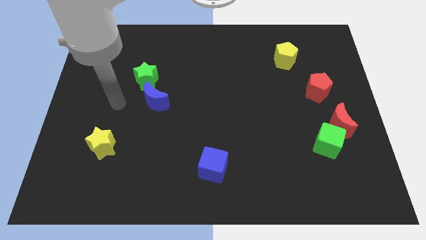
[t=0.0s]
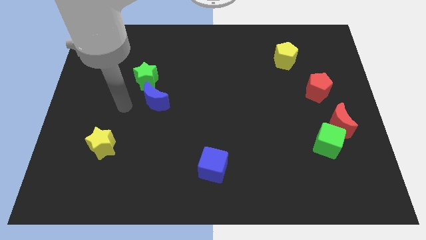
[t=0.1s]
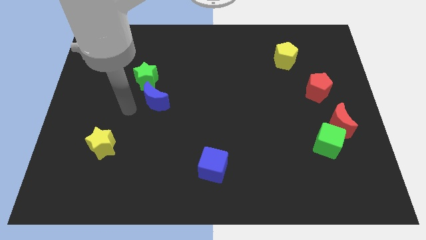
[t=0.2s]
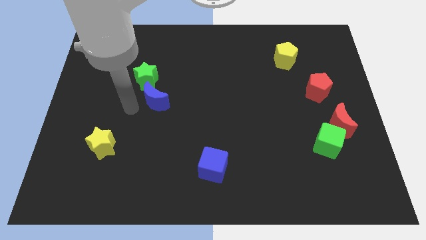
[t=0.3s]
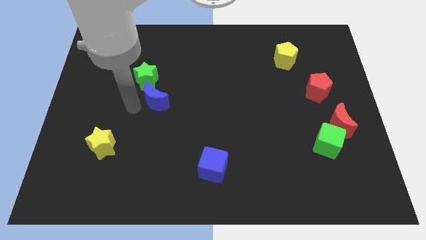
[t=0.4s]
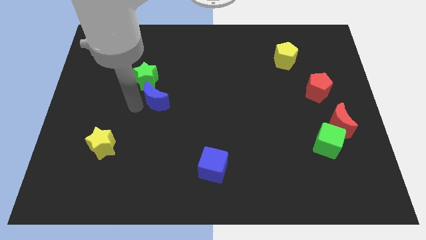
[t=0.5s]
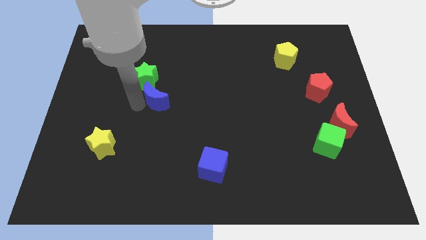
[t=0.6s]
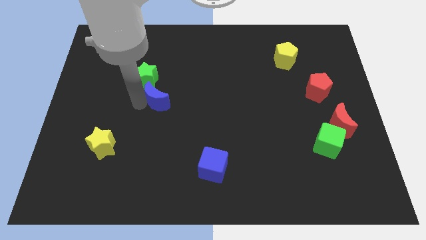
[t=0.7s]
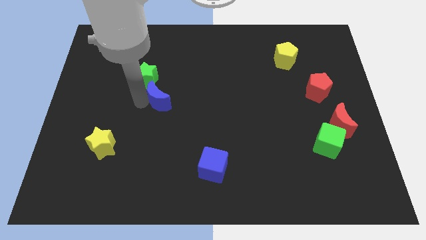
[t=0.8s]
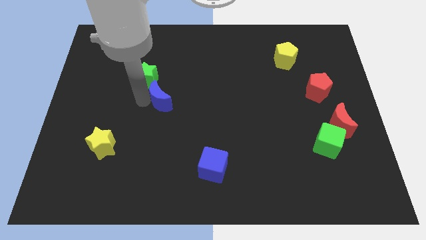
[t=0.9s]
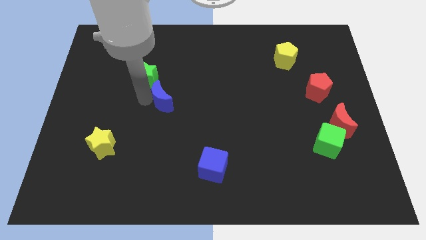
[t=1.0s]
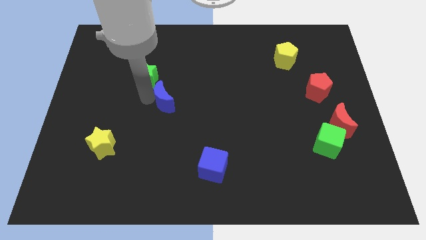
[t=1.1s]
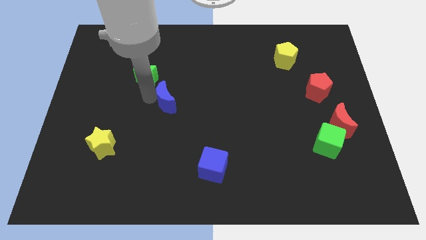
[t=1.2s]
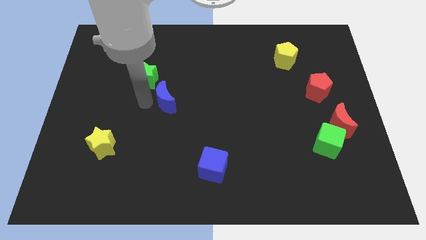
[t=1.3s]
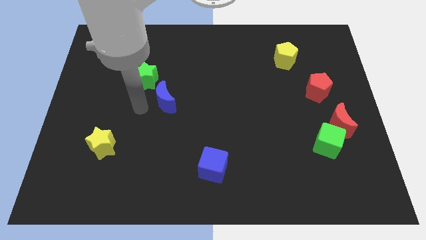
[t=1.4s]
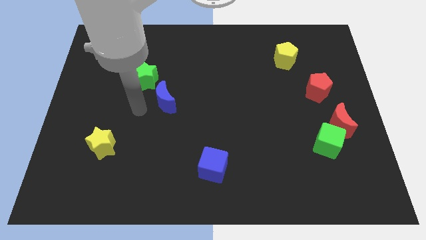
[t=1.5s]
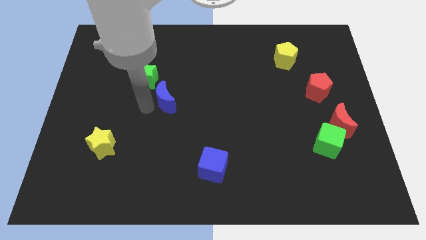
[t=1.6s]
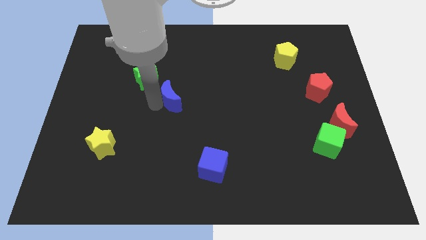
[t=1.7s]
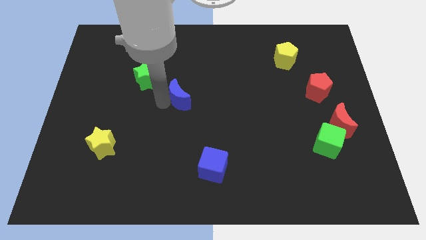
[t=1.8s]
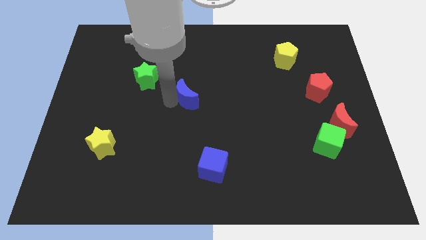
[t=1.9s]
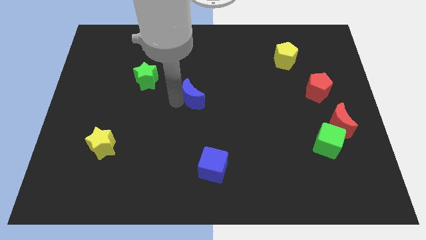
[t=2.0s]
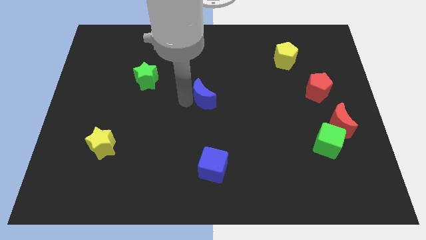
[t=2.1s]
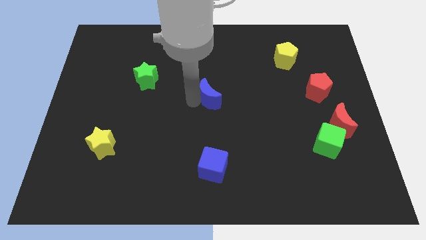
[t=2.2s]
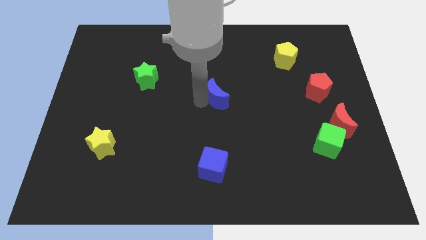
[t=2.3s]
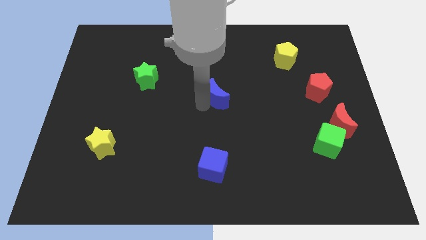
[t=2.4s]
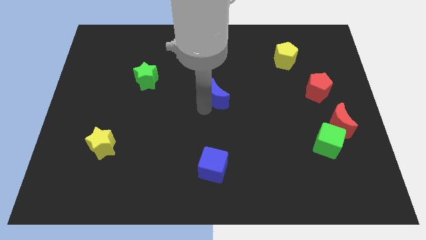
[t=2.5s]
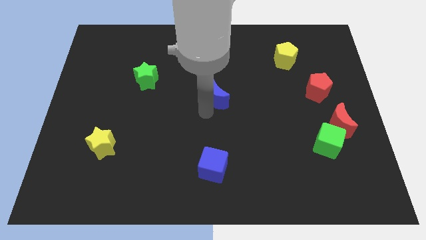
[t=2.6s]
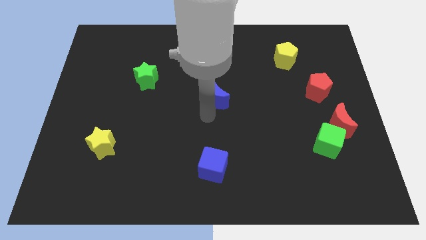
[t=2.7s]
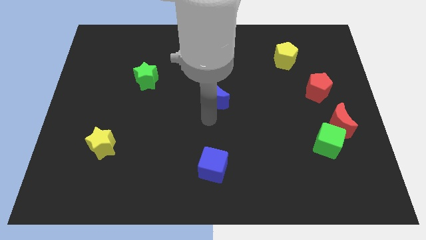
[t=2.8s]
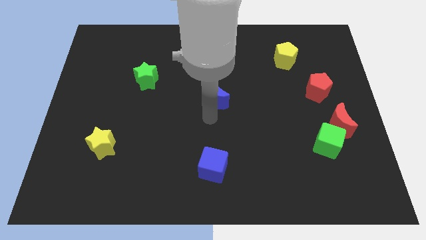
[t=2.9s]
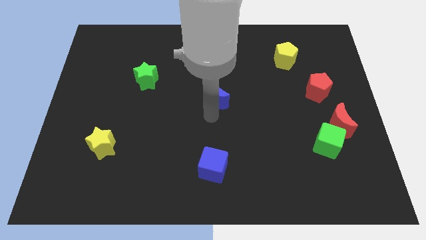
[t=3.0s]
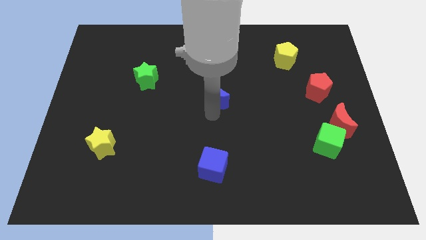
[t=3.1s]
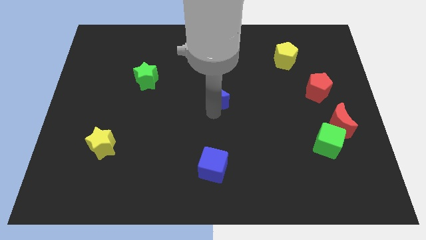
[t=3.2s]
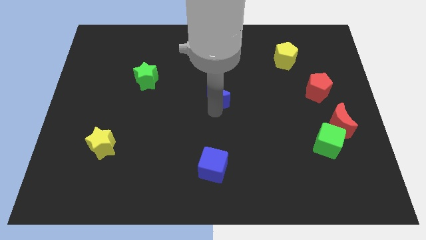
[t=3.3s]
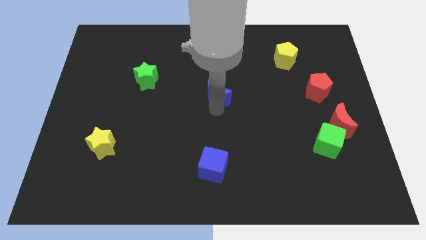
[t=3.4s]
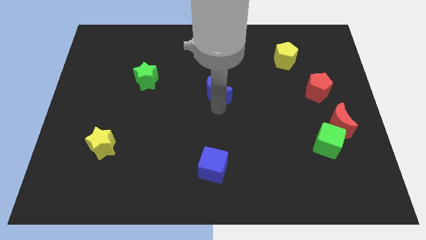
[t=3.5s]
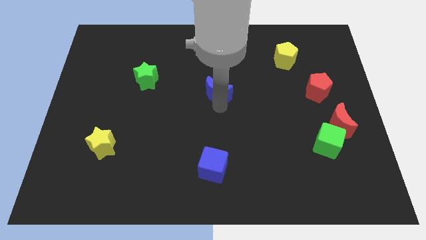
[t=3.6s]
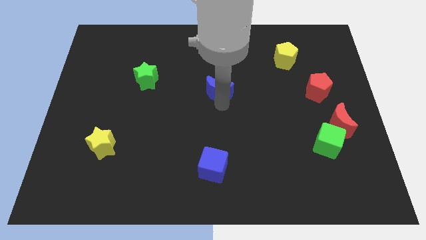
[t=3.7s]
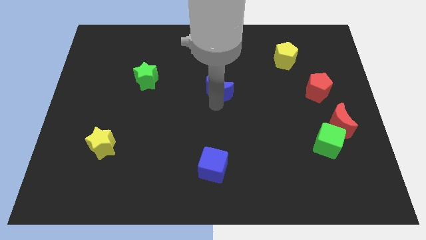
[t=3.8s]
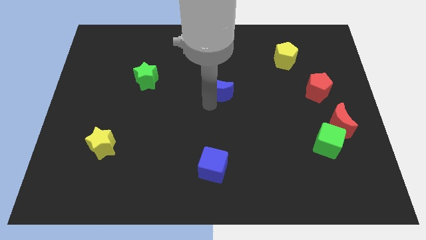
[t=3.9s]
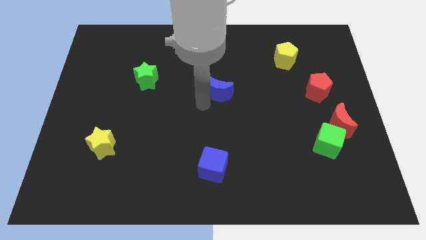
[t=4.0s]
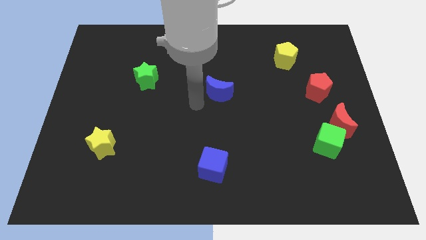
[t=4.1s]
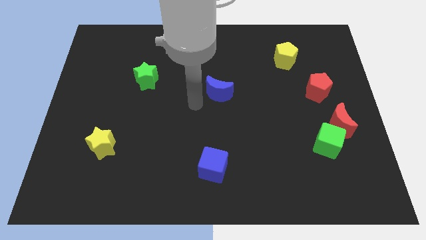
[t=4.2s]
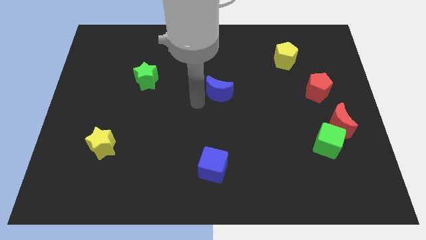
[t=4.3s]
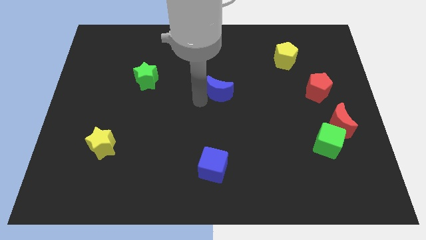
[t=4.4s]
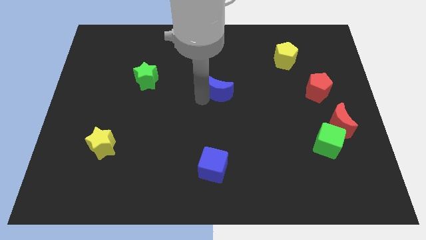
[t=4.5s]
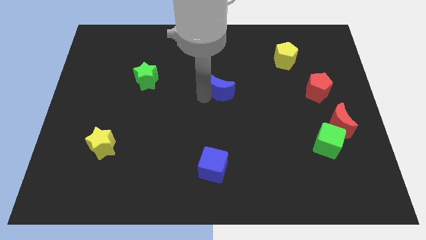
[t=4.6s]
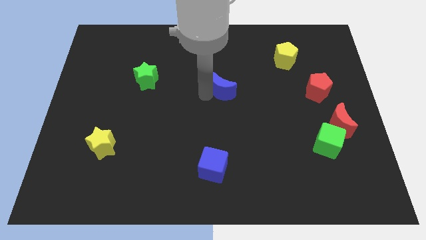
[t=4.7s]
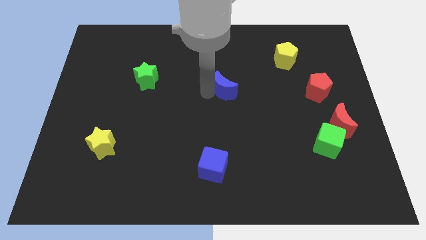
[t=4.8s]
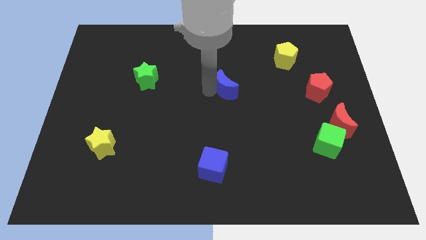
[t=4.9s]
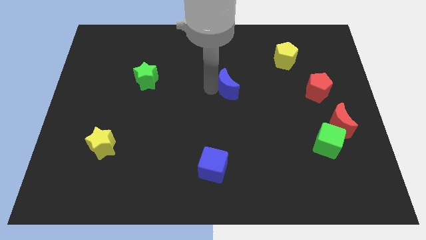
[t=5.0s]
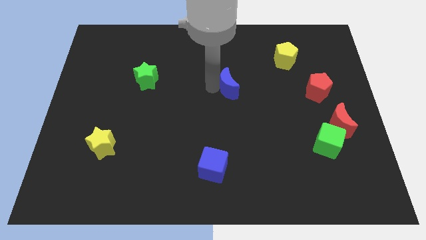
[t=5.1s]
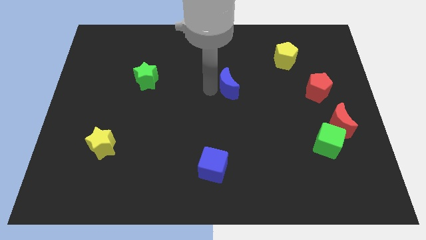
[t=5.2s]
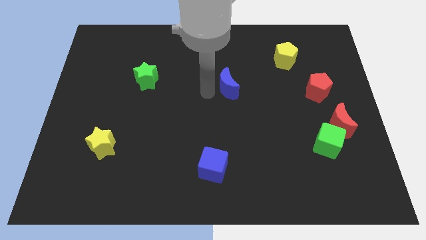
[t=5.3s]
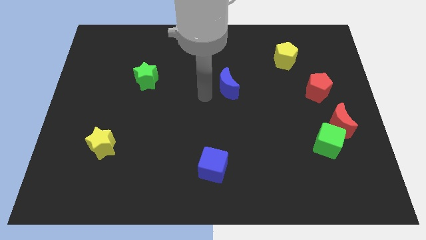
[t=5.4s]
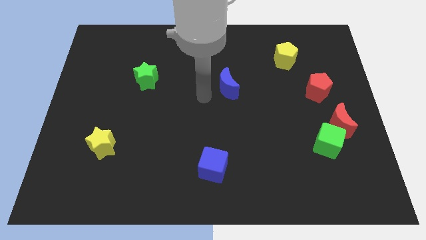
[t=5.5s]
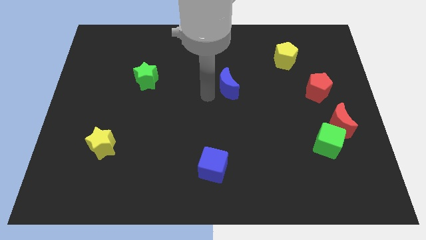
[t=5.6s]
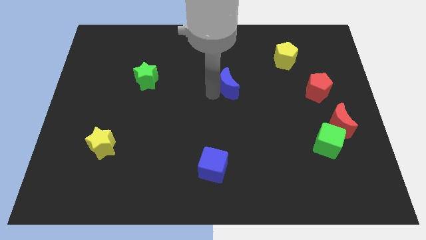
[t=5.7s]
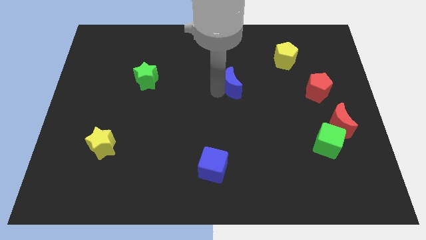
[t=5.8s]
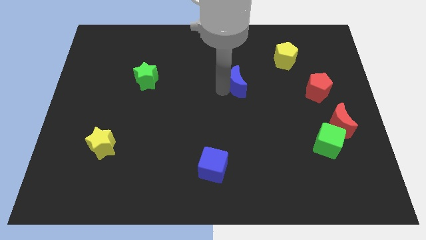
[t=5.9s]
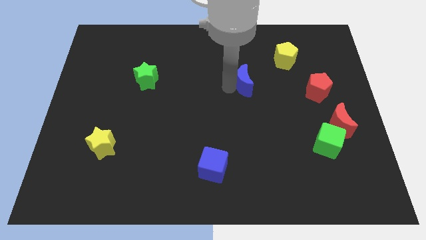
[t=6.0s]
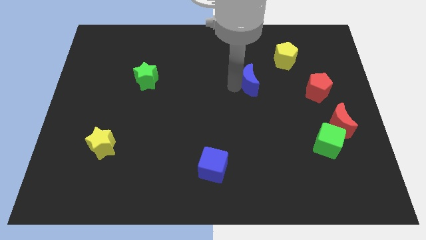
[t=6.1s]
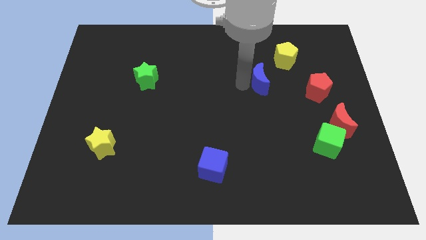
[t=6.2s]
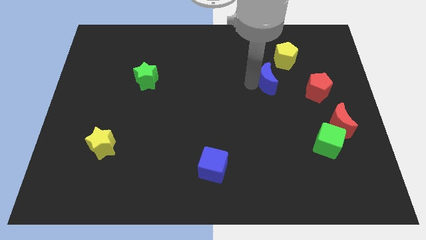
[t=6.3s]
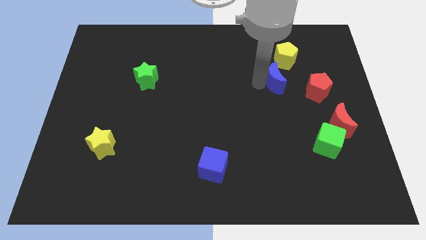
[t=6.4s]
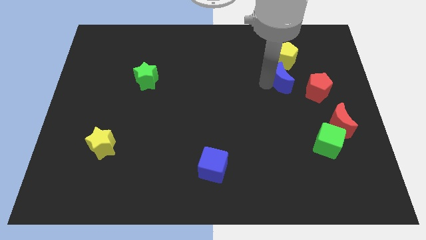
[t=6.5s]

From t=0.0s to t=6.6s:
move the blue moon to the top left side of the red pentagon

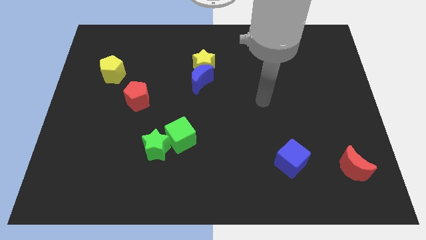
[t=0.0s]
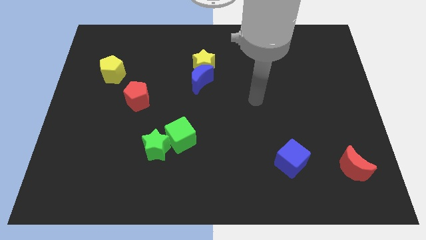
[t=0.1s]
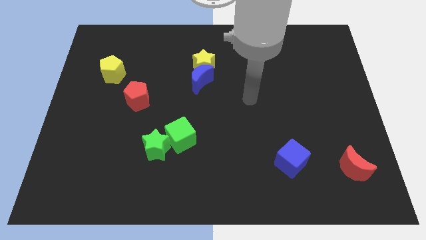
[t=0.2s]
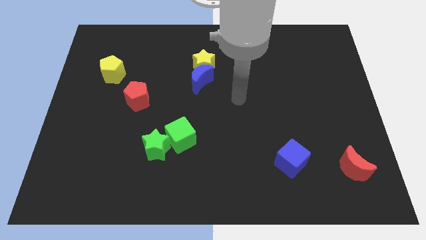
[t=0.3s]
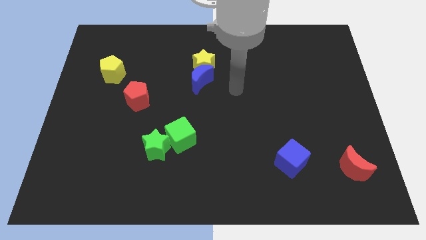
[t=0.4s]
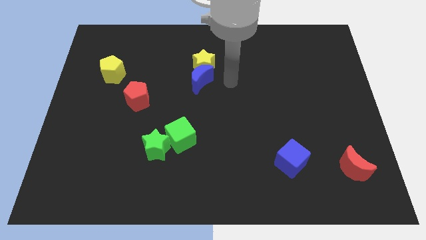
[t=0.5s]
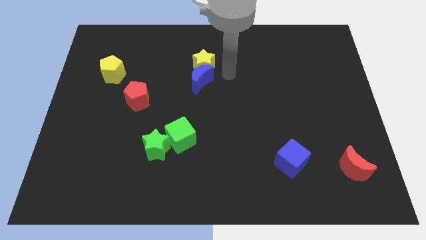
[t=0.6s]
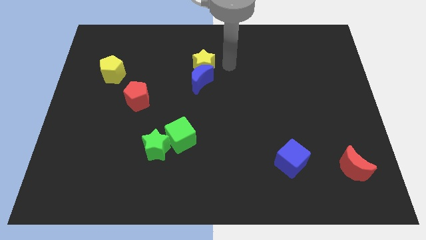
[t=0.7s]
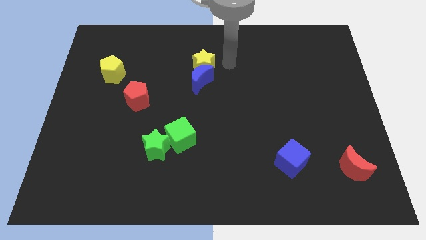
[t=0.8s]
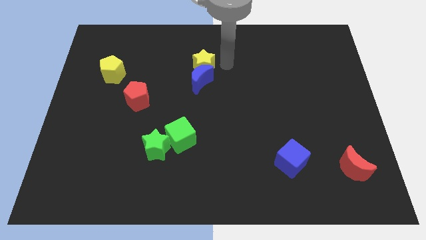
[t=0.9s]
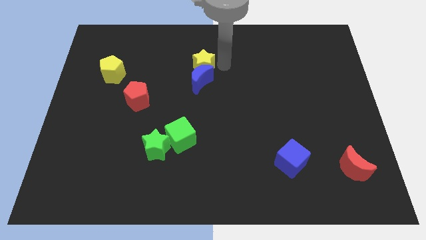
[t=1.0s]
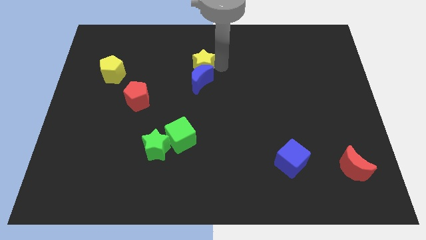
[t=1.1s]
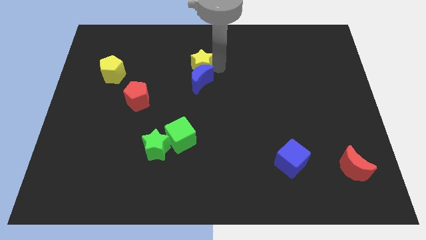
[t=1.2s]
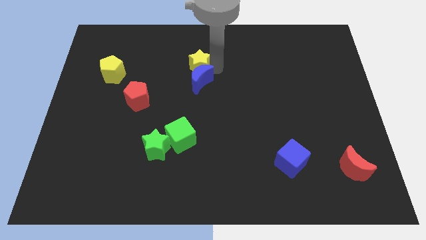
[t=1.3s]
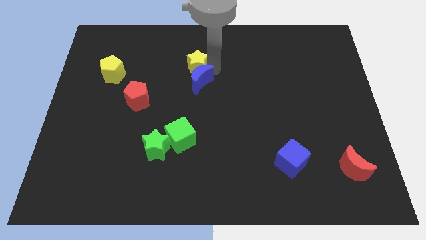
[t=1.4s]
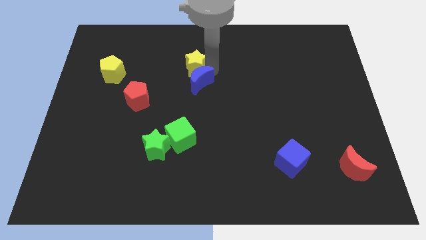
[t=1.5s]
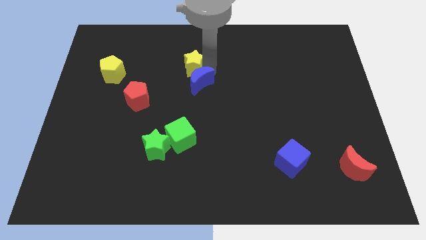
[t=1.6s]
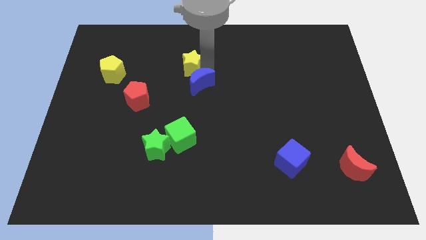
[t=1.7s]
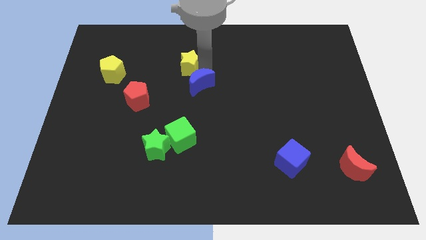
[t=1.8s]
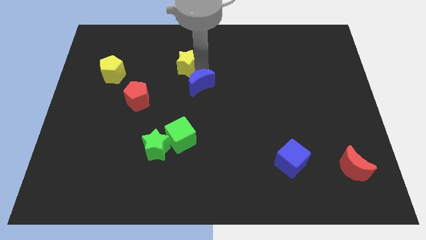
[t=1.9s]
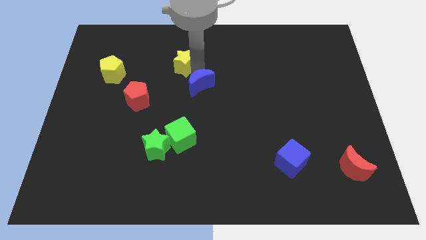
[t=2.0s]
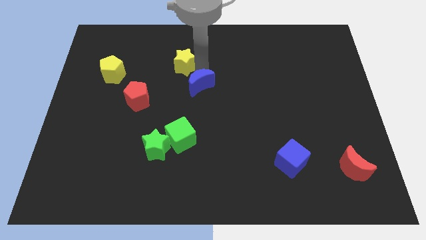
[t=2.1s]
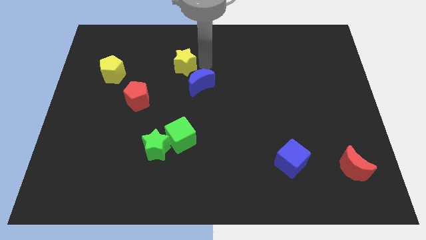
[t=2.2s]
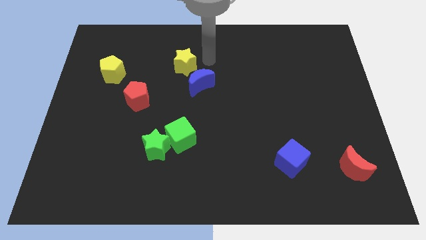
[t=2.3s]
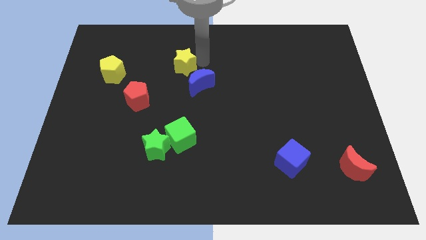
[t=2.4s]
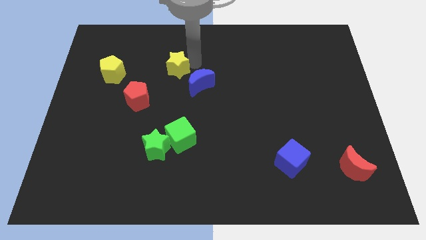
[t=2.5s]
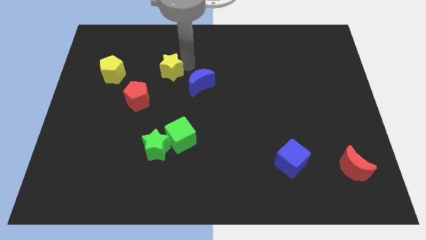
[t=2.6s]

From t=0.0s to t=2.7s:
move the yellow star to the right side of the yellow pentagon
